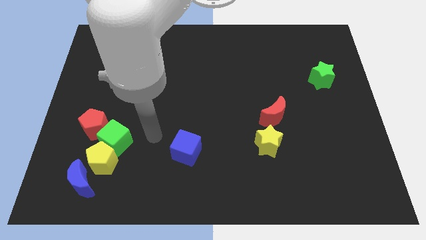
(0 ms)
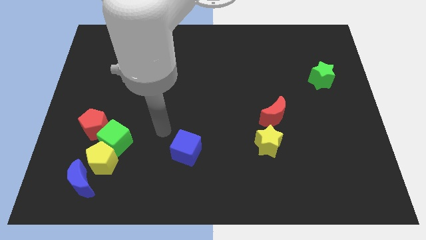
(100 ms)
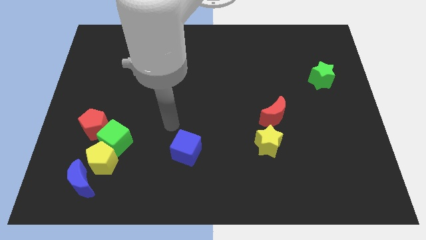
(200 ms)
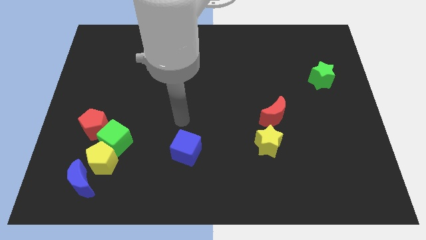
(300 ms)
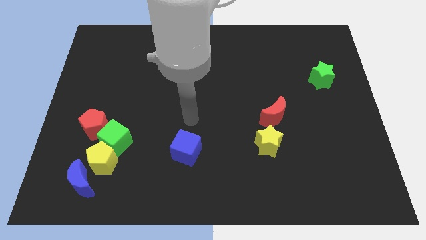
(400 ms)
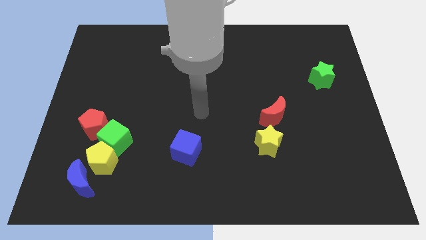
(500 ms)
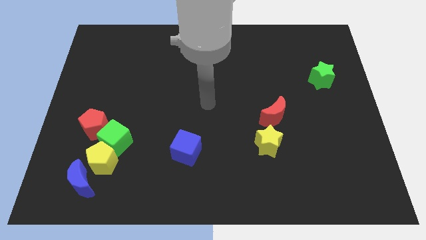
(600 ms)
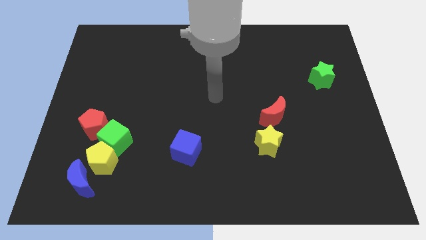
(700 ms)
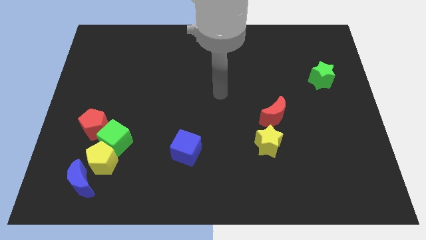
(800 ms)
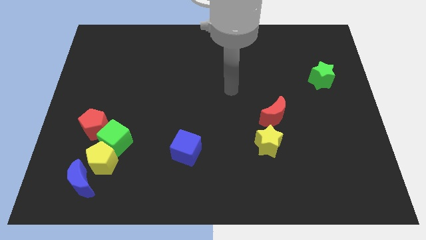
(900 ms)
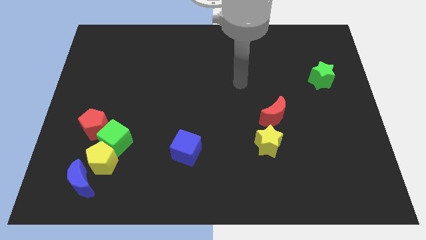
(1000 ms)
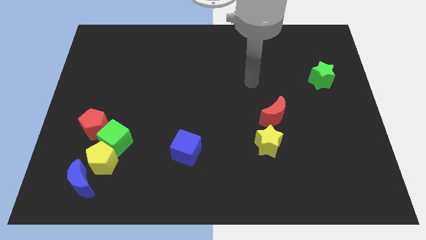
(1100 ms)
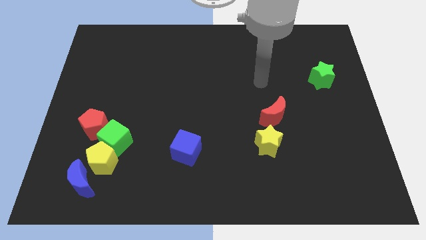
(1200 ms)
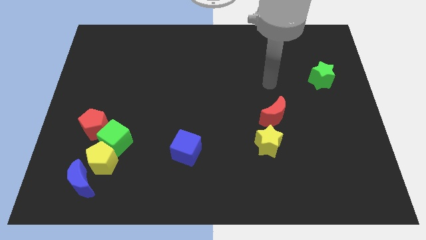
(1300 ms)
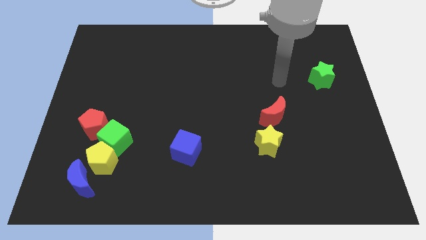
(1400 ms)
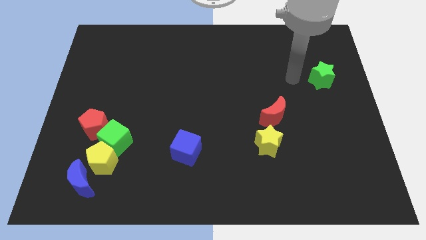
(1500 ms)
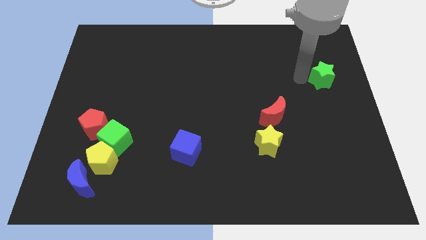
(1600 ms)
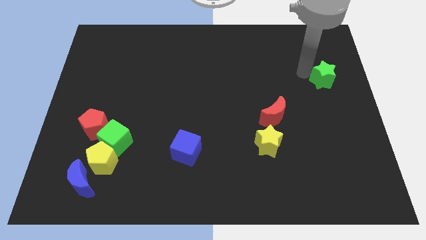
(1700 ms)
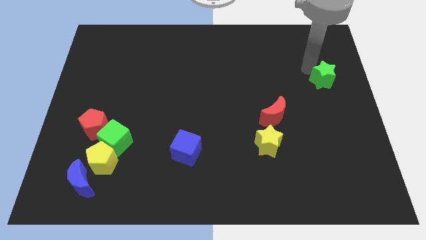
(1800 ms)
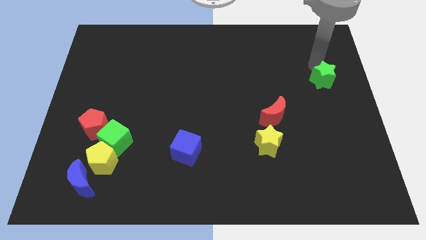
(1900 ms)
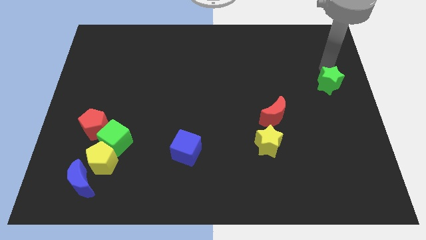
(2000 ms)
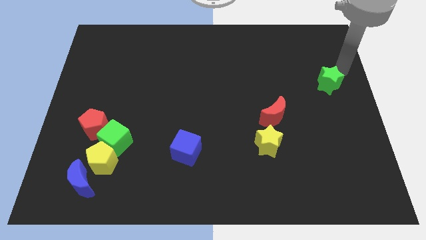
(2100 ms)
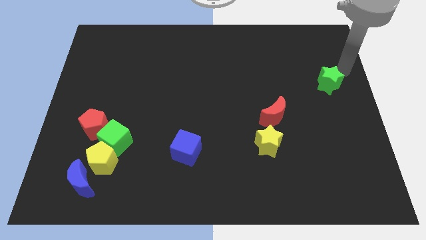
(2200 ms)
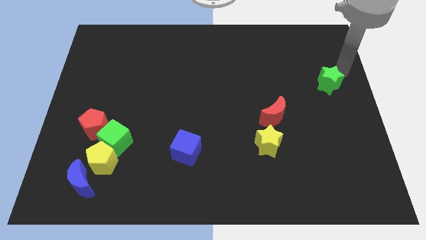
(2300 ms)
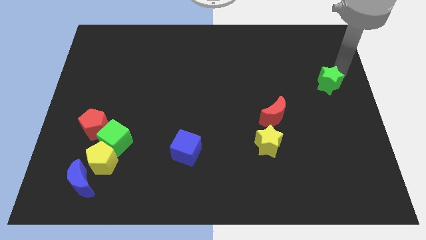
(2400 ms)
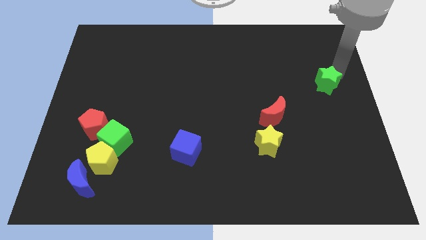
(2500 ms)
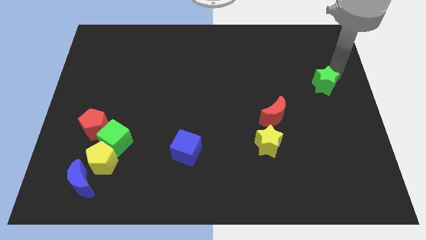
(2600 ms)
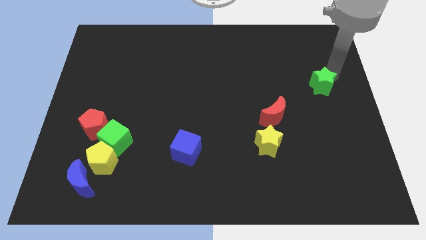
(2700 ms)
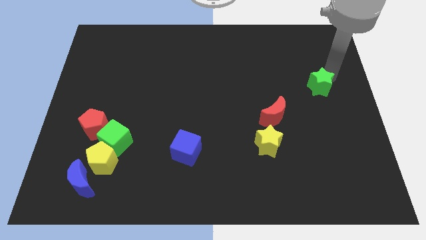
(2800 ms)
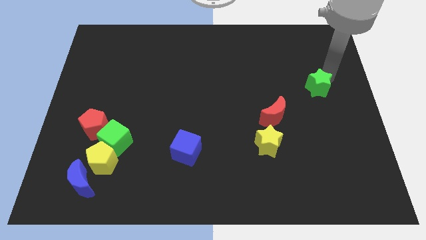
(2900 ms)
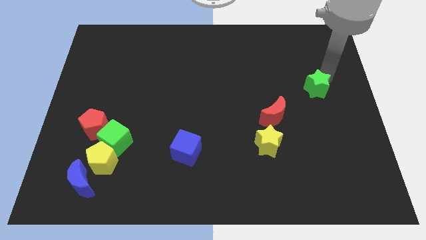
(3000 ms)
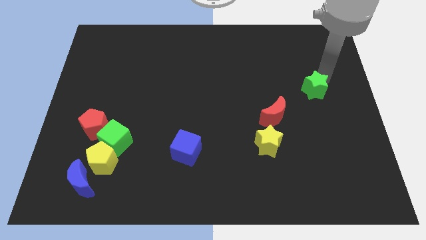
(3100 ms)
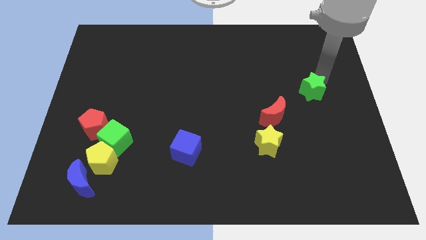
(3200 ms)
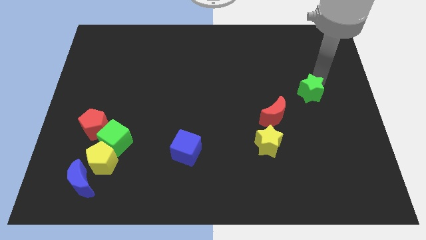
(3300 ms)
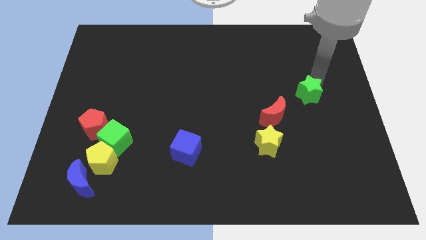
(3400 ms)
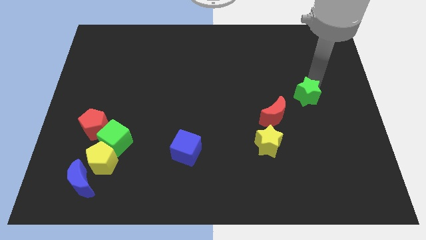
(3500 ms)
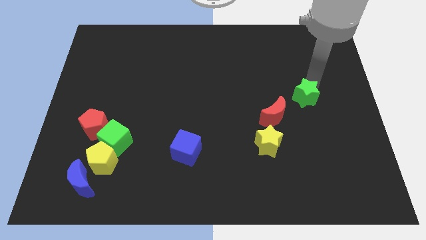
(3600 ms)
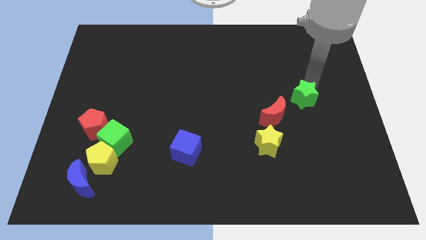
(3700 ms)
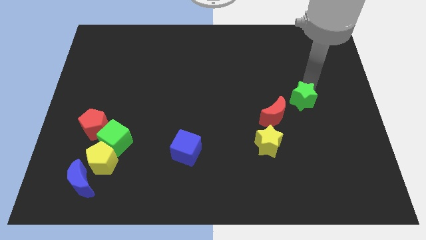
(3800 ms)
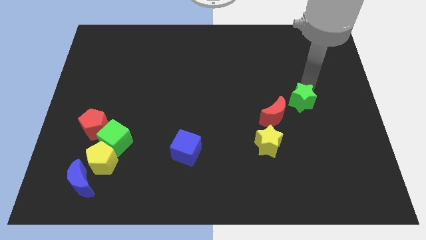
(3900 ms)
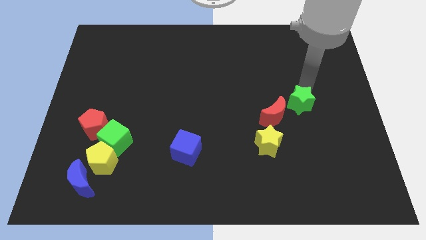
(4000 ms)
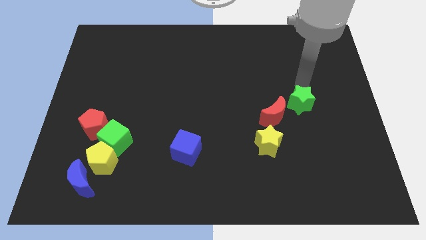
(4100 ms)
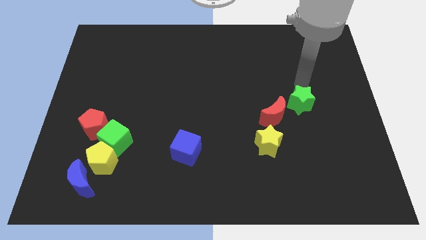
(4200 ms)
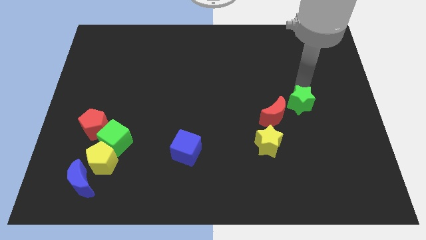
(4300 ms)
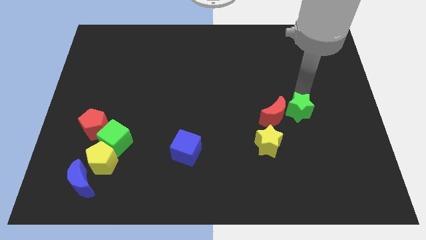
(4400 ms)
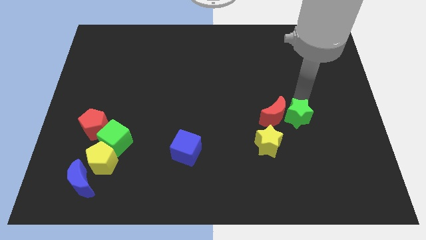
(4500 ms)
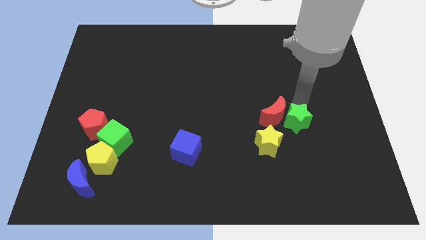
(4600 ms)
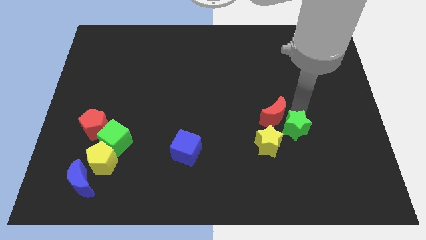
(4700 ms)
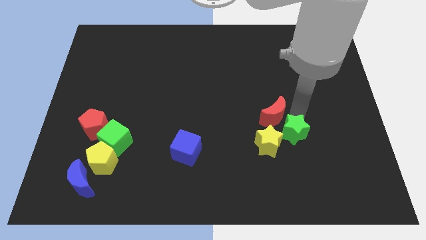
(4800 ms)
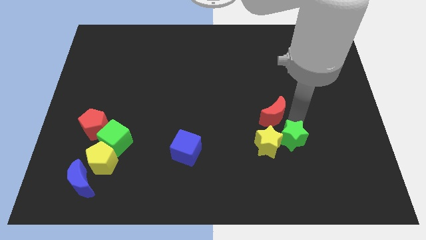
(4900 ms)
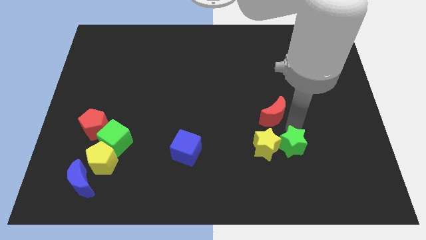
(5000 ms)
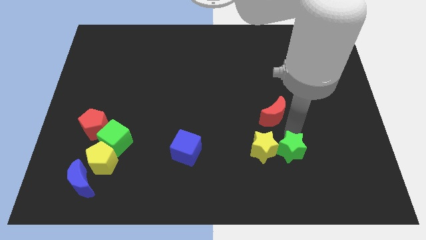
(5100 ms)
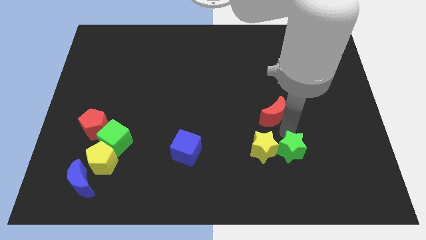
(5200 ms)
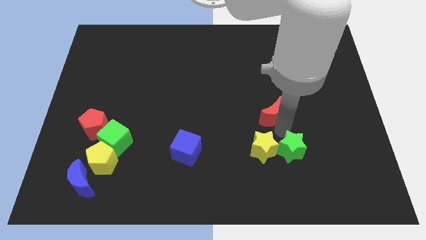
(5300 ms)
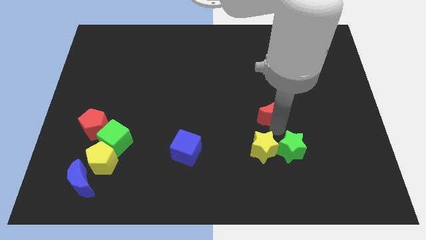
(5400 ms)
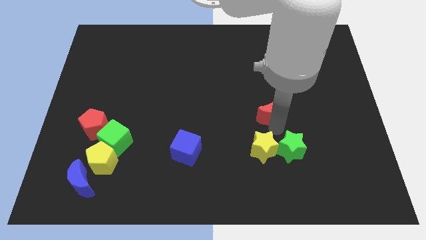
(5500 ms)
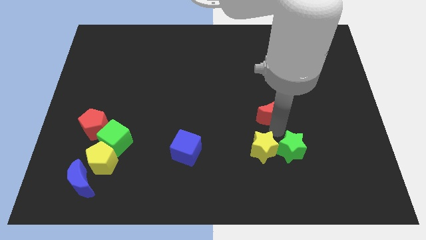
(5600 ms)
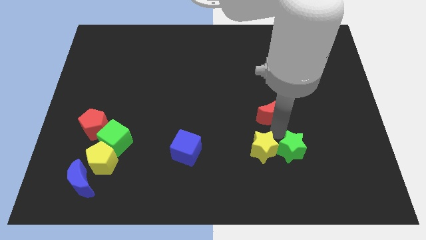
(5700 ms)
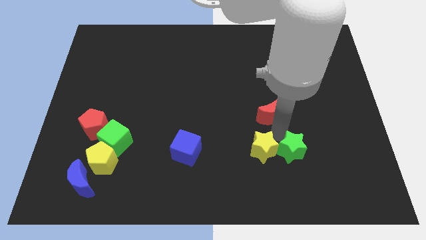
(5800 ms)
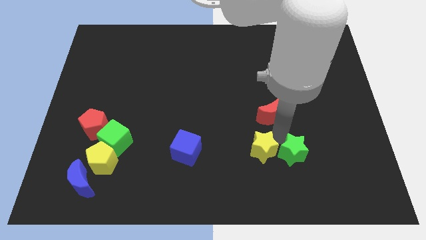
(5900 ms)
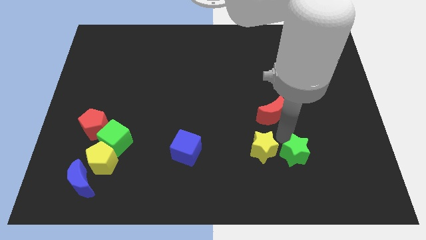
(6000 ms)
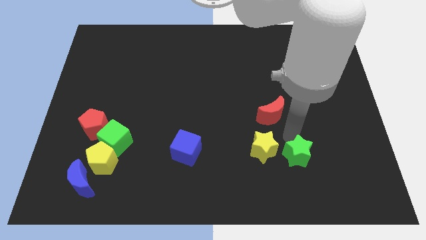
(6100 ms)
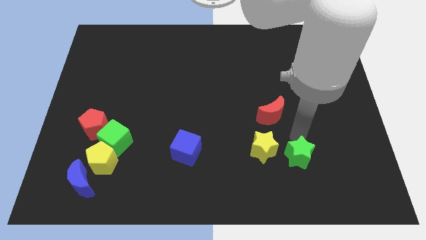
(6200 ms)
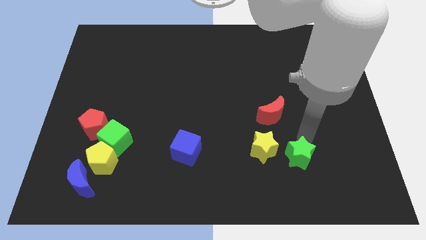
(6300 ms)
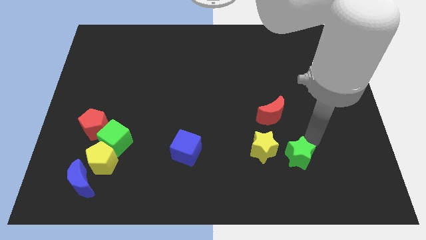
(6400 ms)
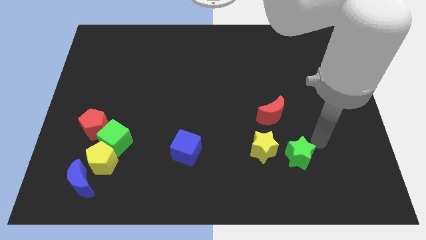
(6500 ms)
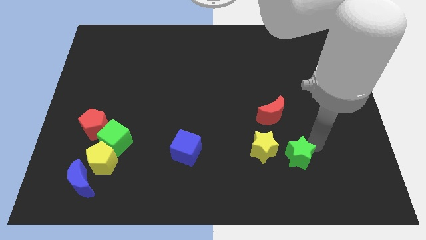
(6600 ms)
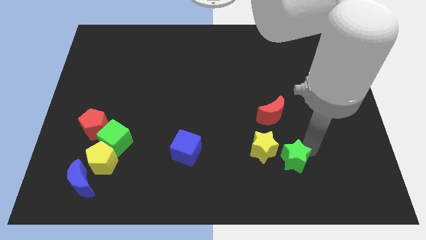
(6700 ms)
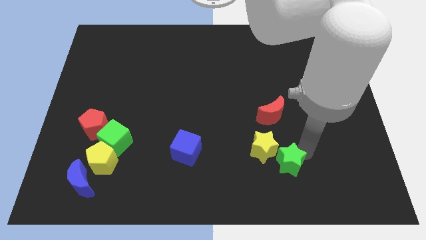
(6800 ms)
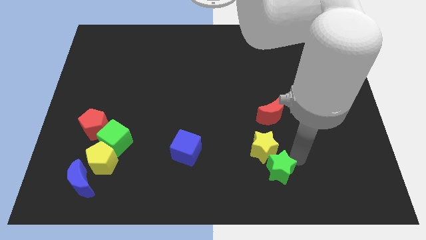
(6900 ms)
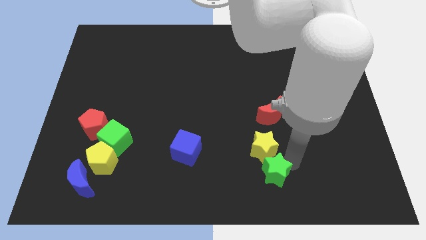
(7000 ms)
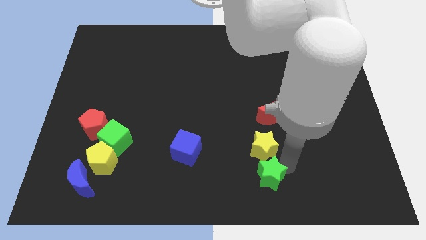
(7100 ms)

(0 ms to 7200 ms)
put the green star to the bottom
